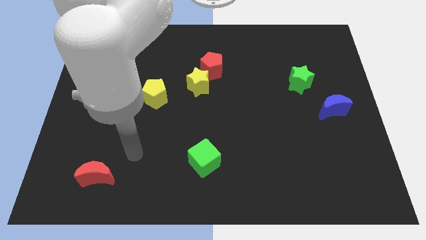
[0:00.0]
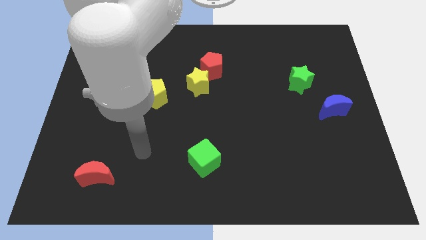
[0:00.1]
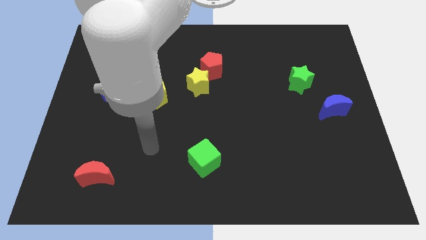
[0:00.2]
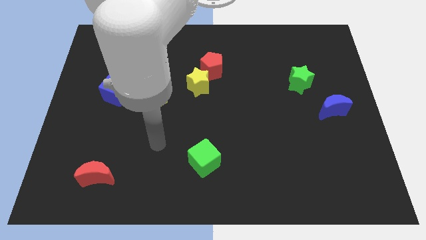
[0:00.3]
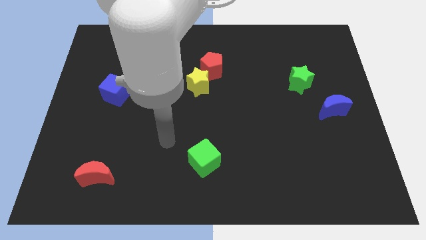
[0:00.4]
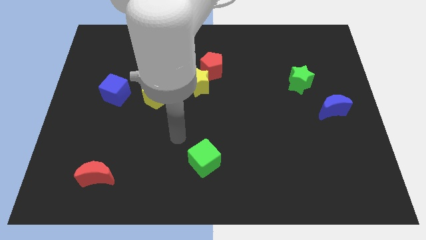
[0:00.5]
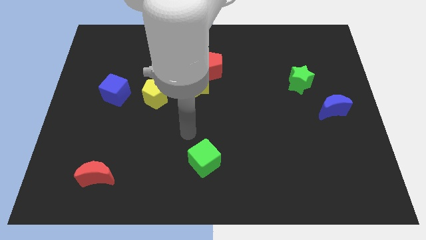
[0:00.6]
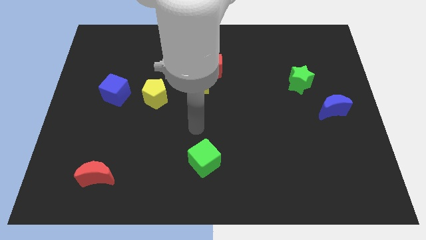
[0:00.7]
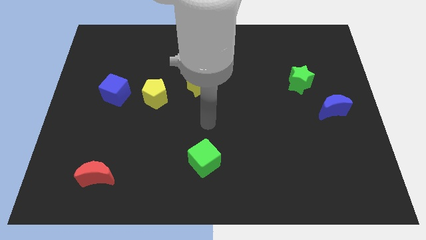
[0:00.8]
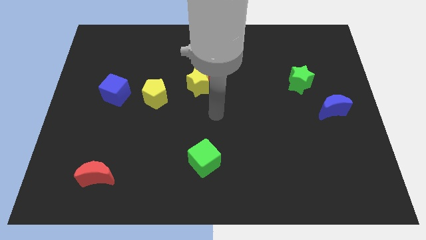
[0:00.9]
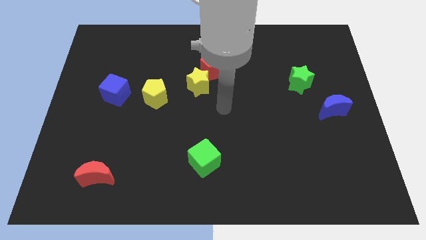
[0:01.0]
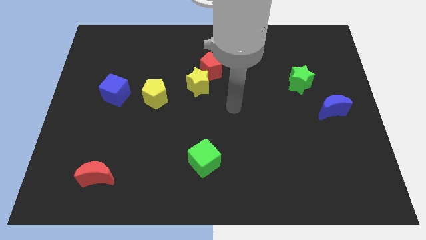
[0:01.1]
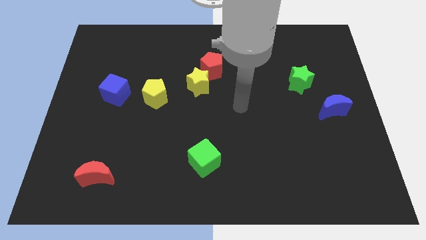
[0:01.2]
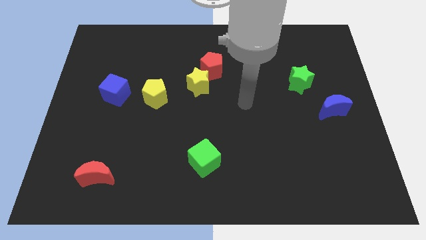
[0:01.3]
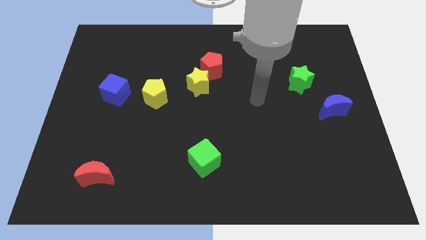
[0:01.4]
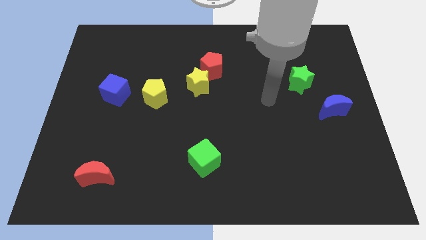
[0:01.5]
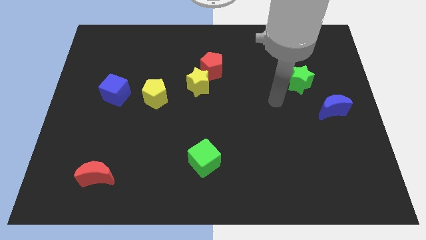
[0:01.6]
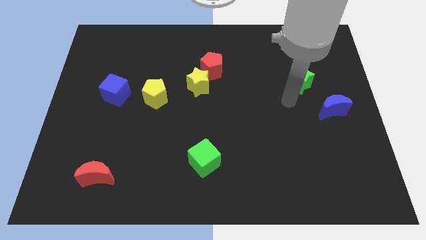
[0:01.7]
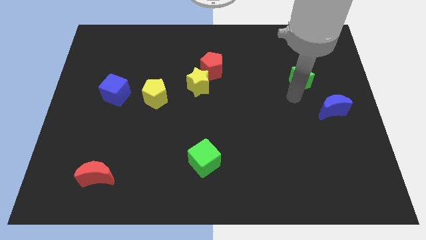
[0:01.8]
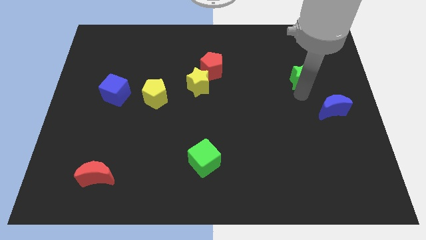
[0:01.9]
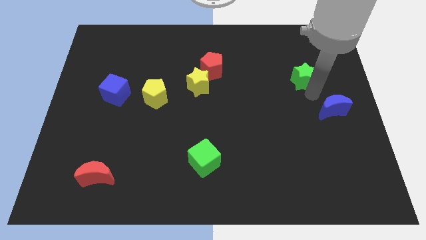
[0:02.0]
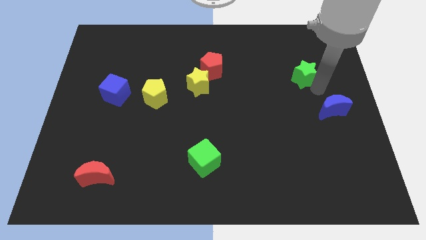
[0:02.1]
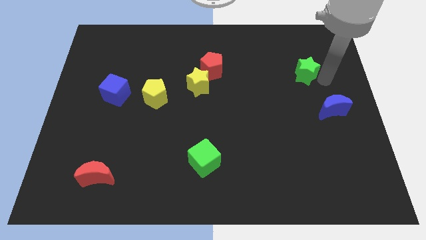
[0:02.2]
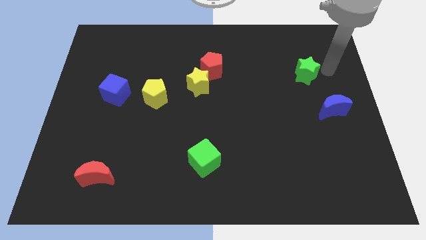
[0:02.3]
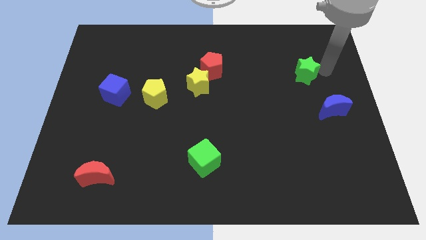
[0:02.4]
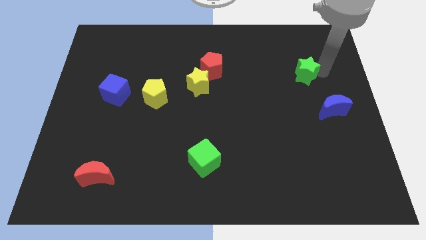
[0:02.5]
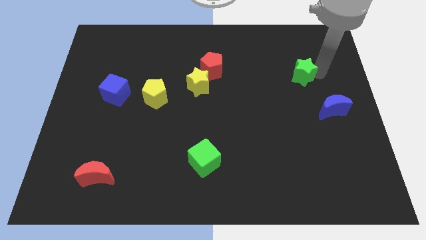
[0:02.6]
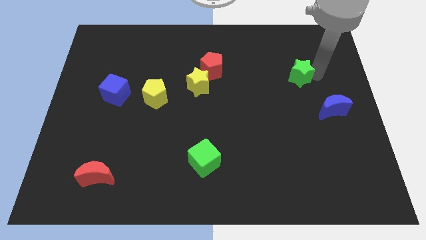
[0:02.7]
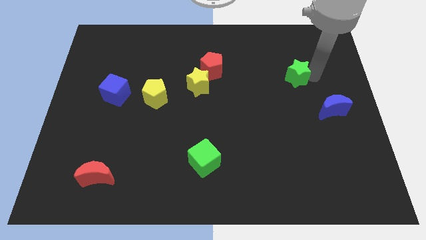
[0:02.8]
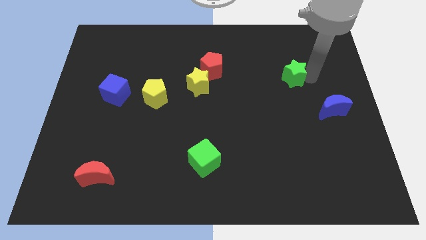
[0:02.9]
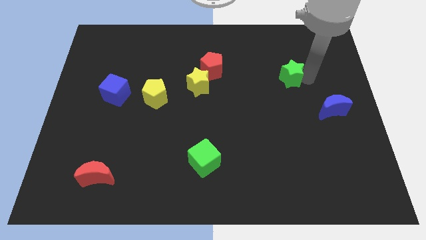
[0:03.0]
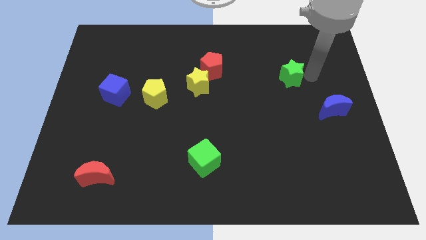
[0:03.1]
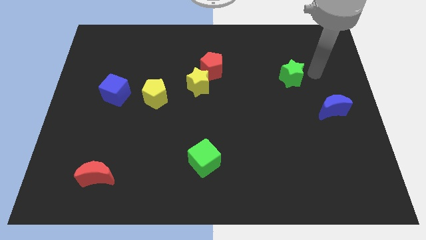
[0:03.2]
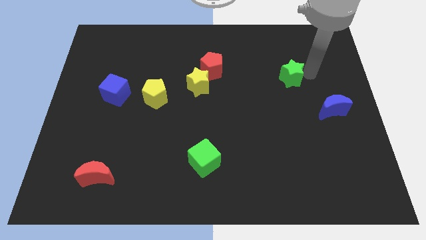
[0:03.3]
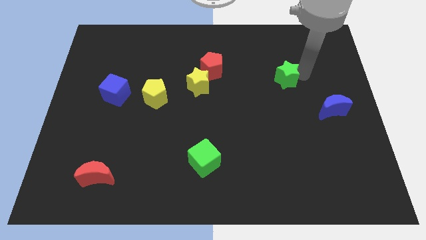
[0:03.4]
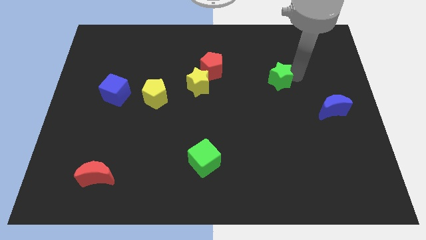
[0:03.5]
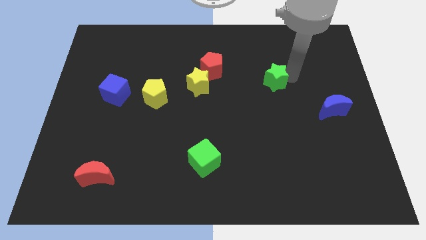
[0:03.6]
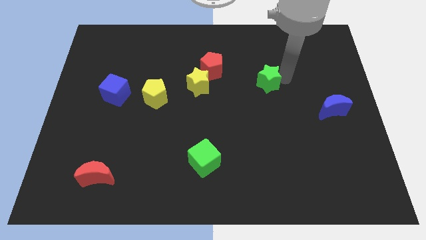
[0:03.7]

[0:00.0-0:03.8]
slightly slide the green star to the left

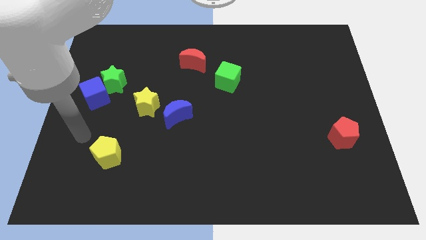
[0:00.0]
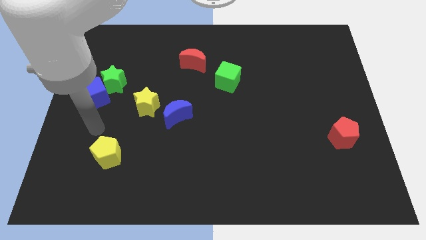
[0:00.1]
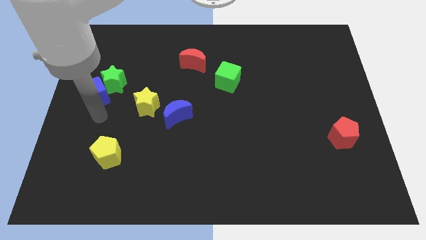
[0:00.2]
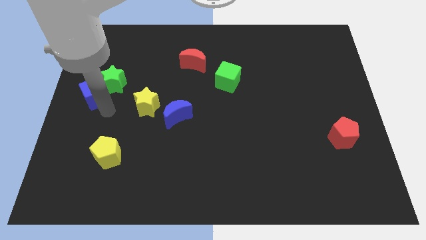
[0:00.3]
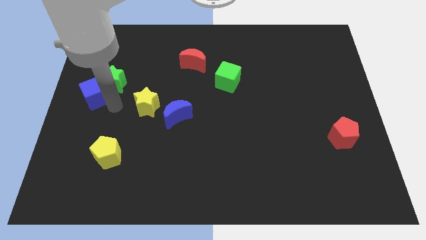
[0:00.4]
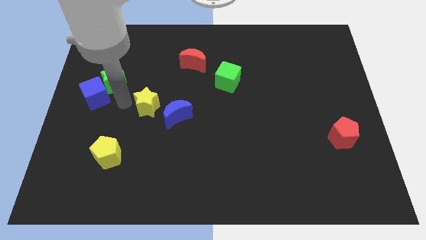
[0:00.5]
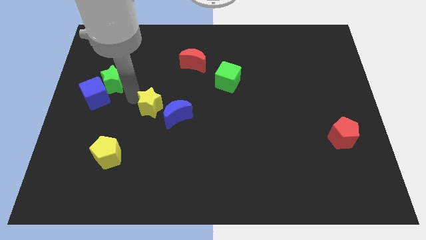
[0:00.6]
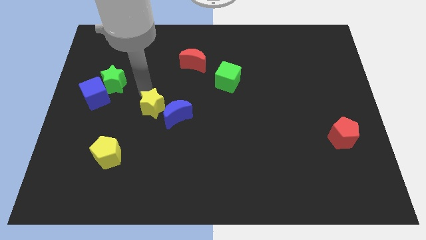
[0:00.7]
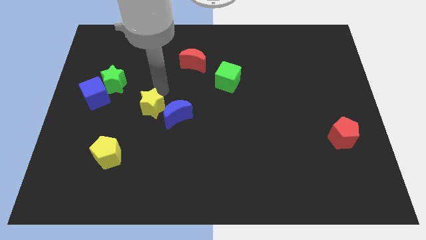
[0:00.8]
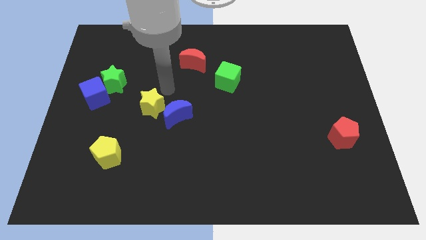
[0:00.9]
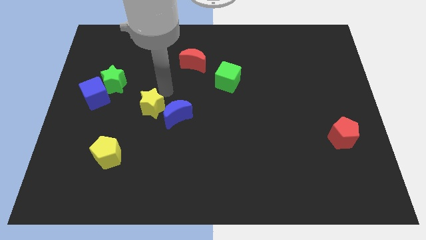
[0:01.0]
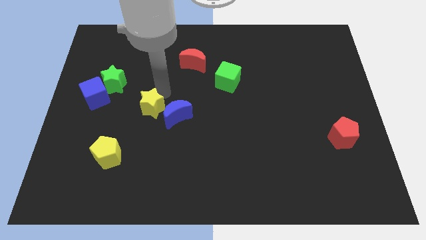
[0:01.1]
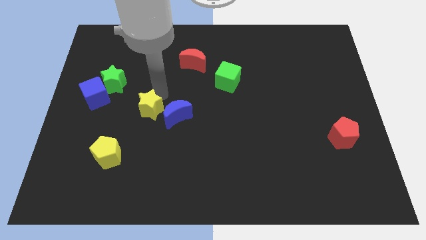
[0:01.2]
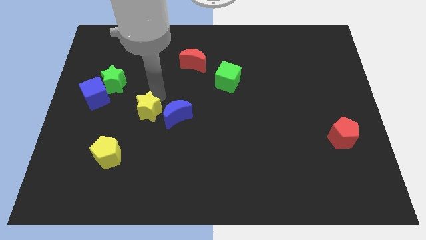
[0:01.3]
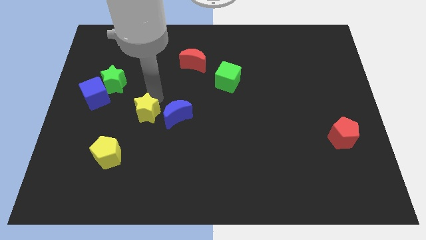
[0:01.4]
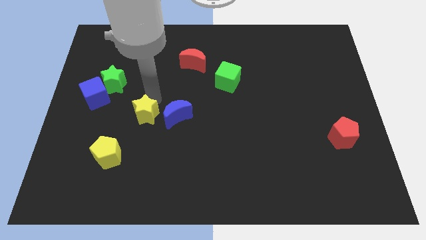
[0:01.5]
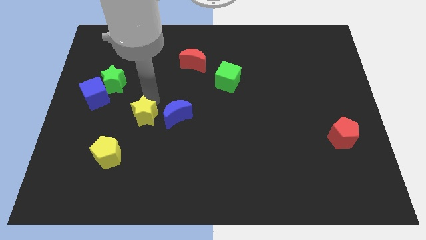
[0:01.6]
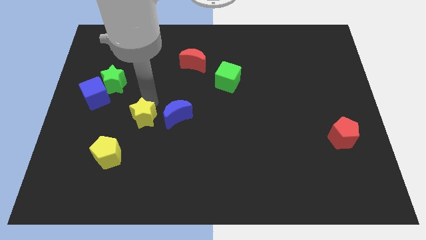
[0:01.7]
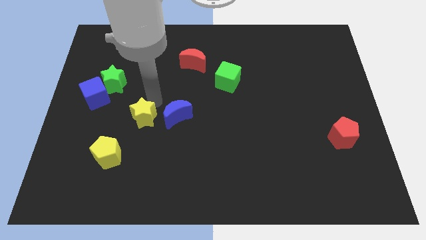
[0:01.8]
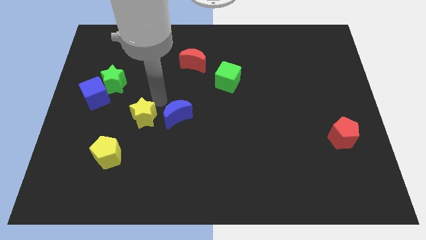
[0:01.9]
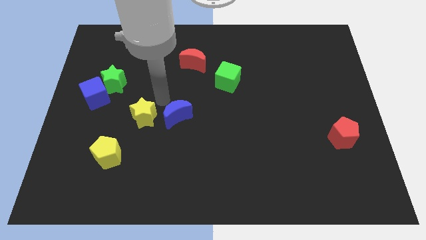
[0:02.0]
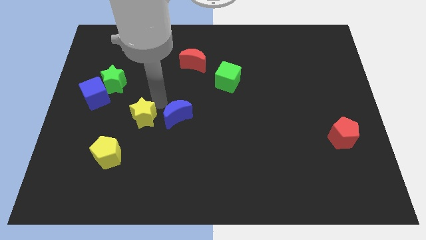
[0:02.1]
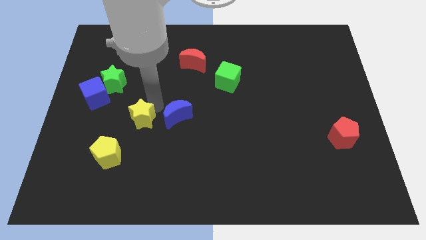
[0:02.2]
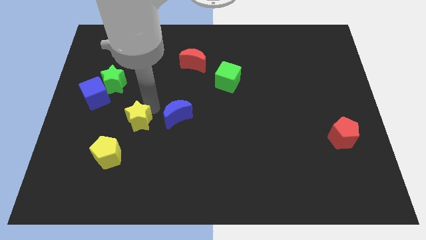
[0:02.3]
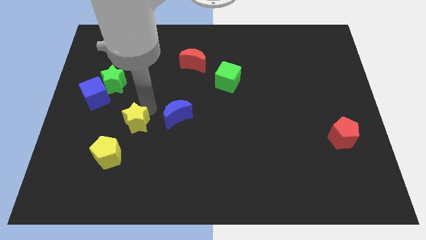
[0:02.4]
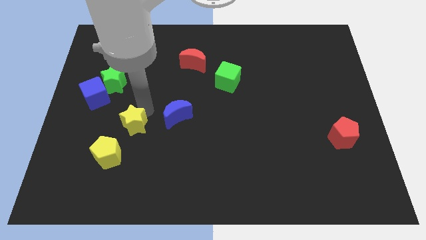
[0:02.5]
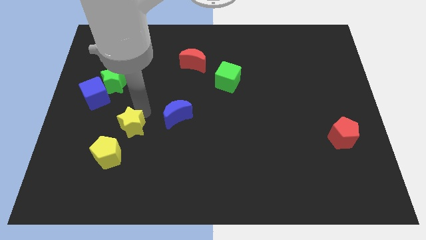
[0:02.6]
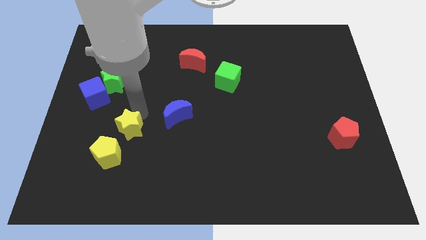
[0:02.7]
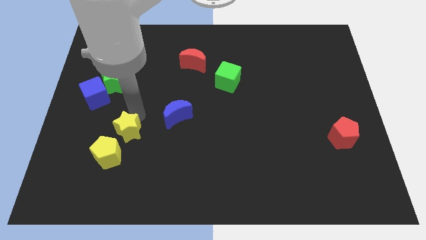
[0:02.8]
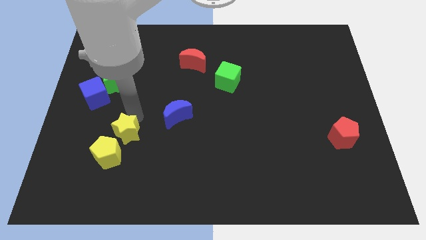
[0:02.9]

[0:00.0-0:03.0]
slightly move the yellow star downwards

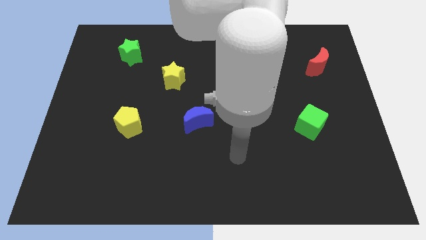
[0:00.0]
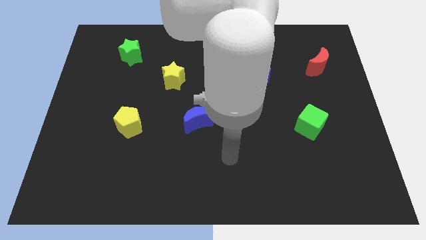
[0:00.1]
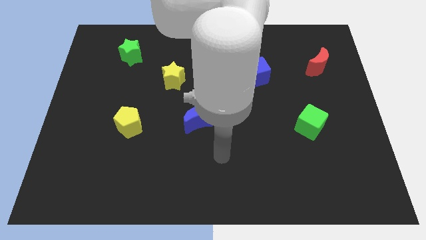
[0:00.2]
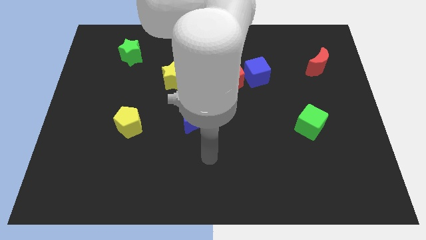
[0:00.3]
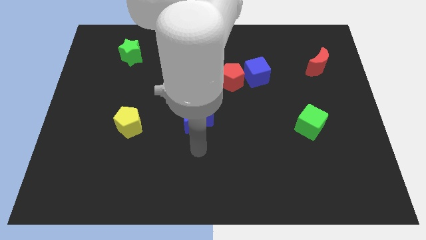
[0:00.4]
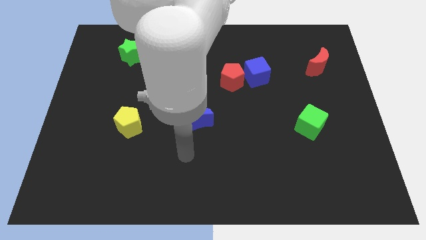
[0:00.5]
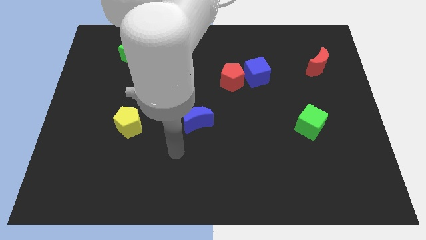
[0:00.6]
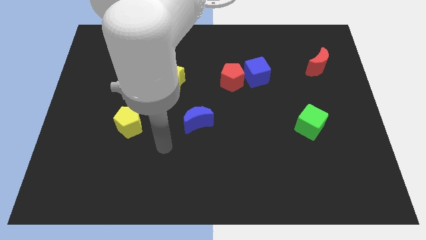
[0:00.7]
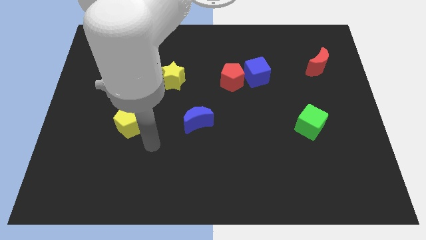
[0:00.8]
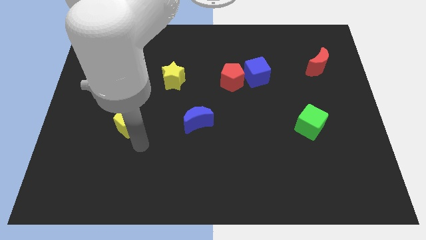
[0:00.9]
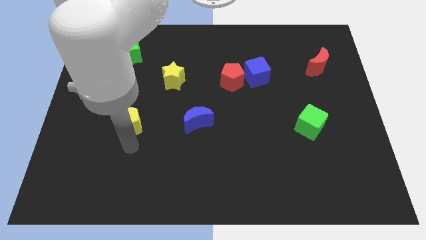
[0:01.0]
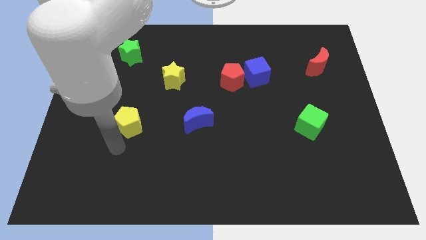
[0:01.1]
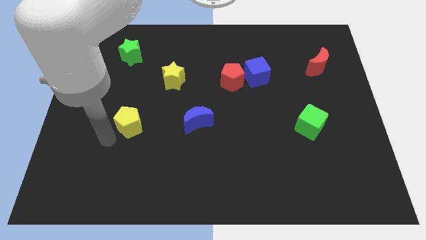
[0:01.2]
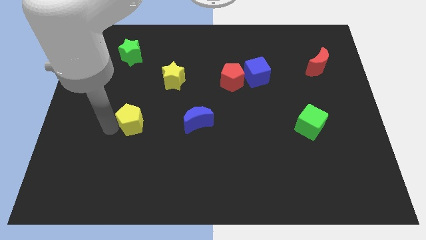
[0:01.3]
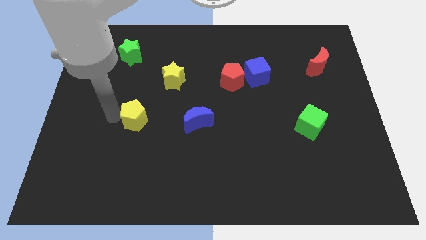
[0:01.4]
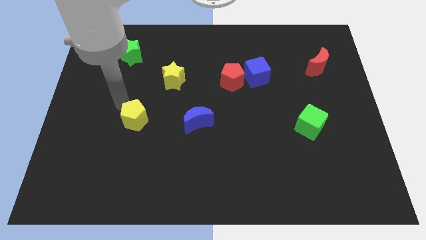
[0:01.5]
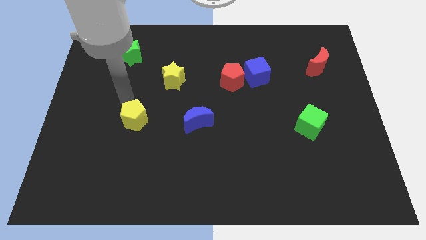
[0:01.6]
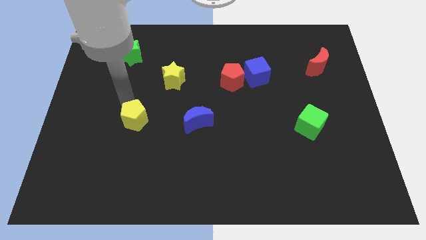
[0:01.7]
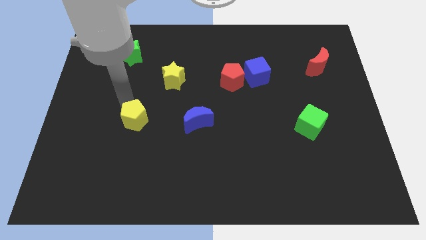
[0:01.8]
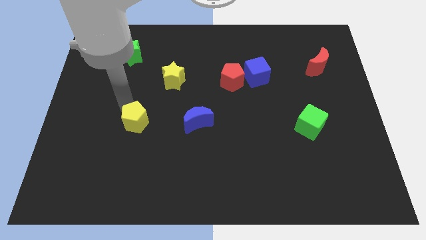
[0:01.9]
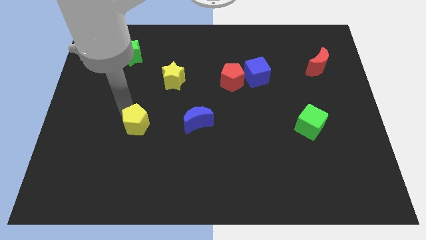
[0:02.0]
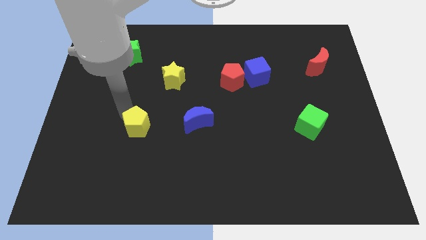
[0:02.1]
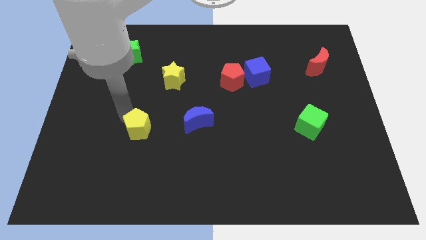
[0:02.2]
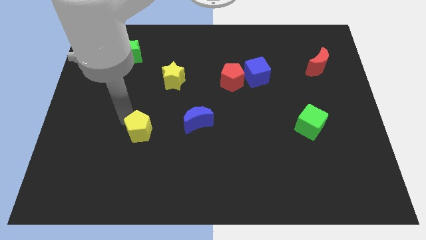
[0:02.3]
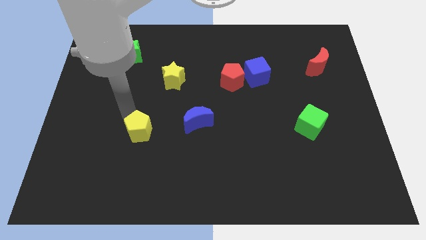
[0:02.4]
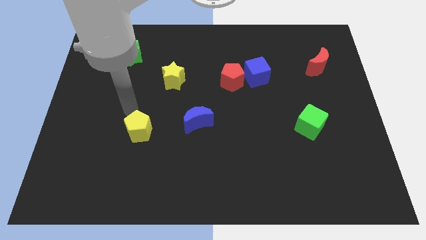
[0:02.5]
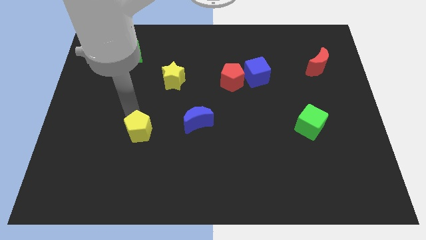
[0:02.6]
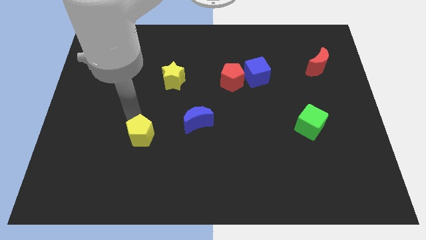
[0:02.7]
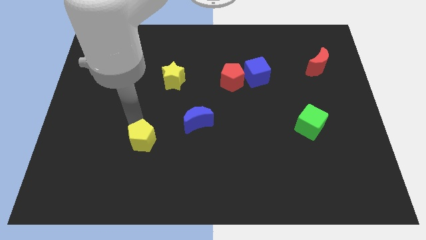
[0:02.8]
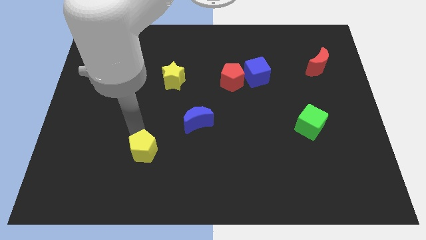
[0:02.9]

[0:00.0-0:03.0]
push the yellow pentagon slightly diagonally downwards and to the right
